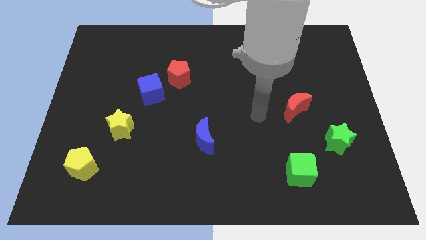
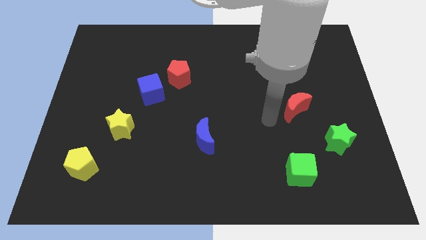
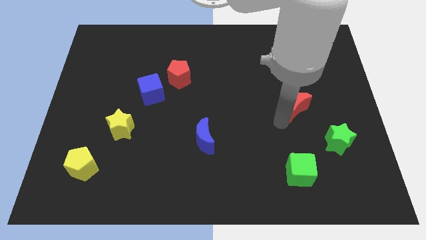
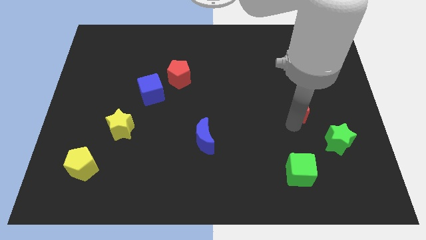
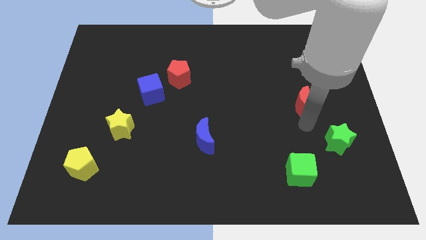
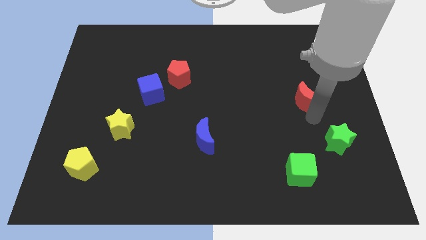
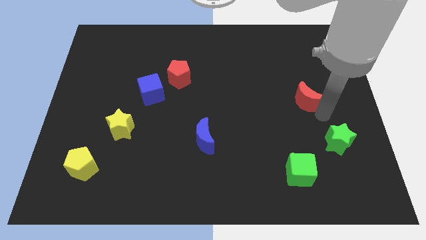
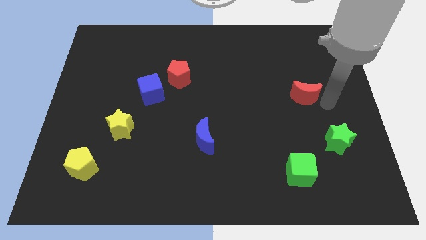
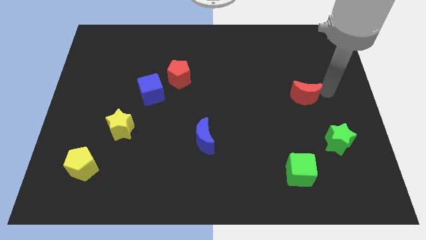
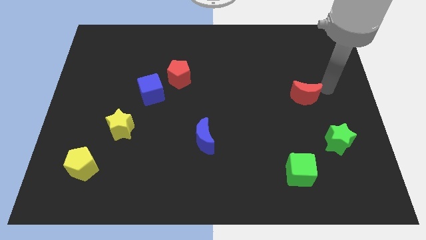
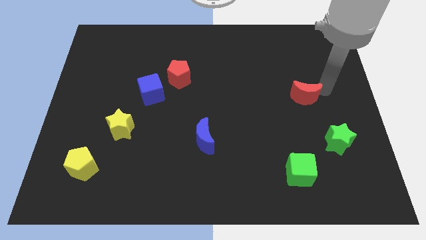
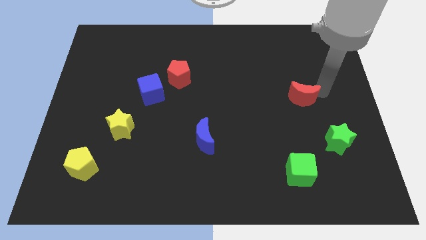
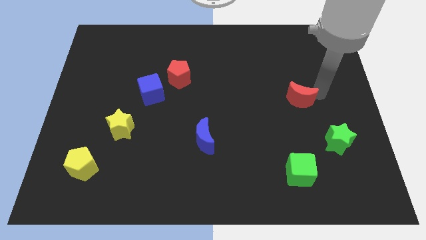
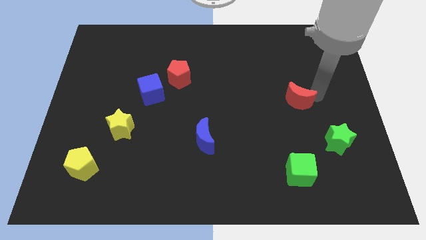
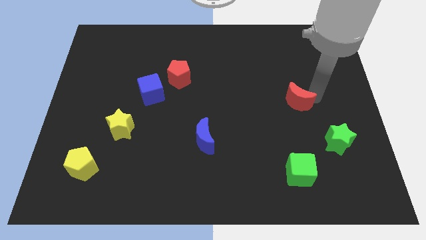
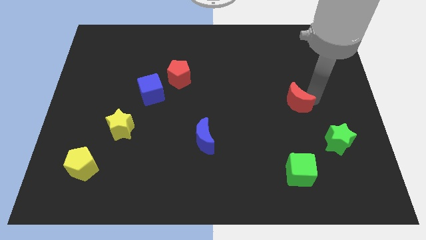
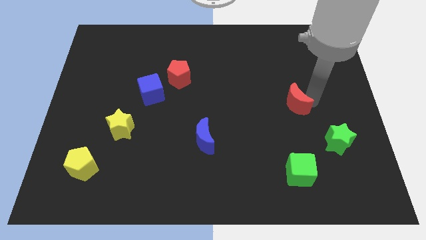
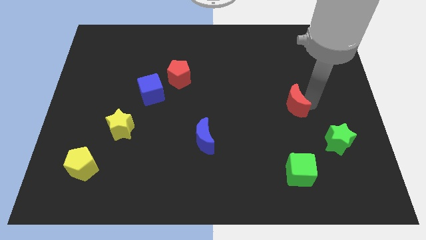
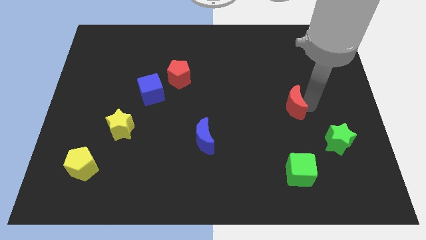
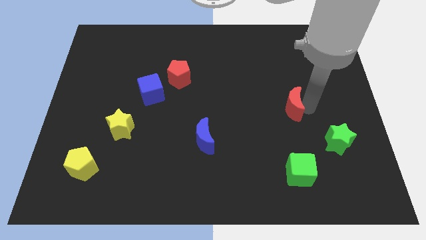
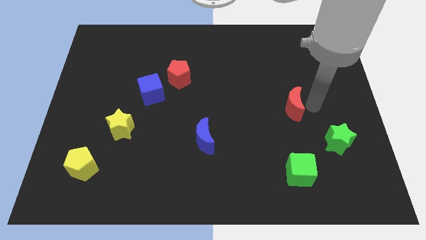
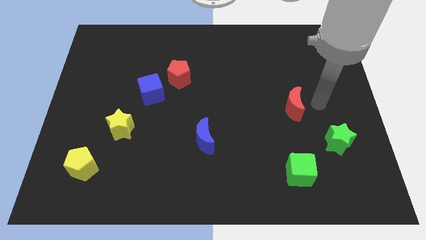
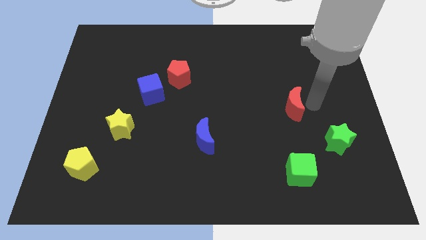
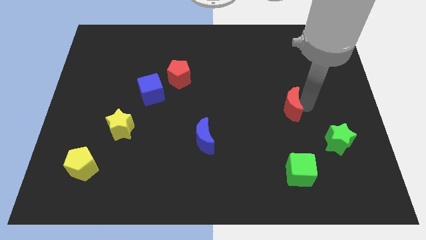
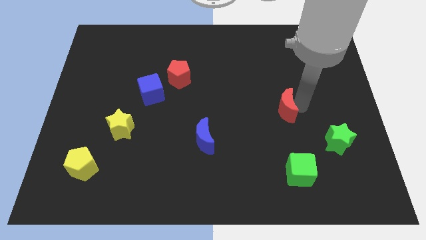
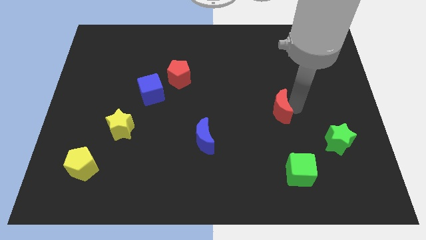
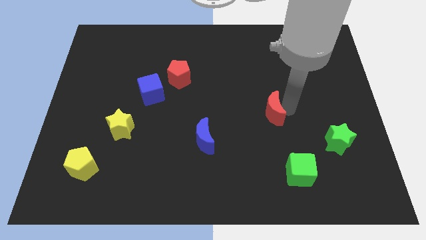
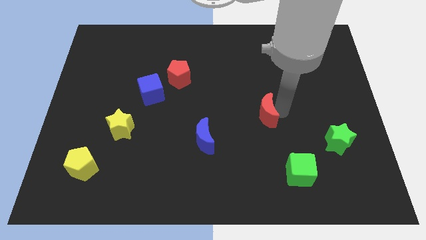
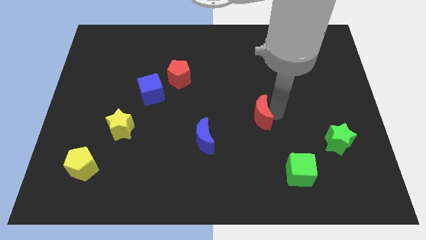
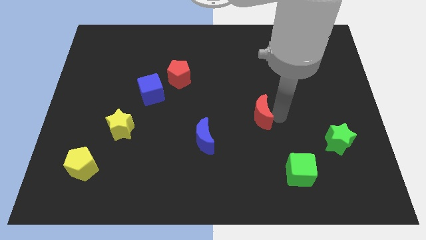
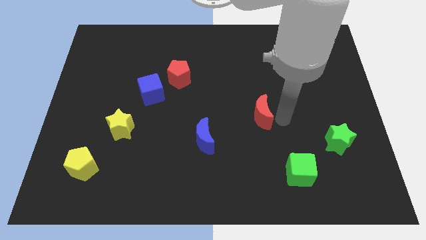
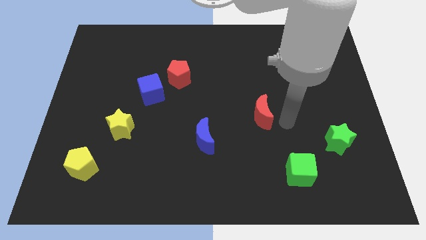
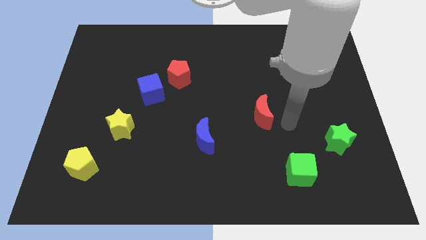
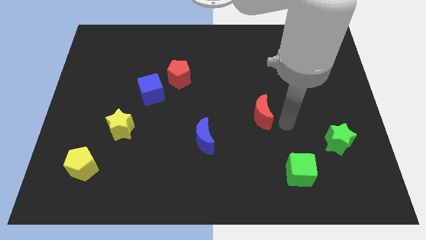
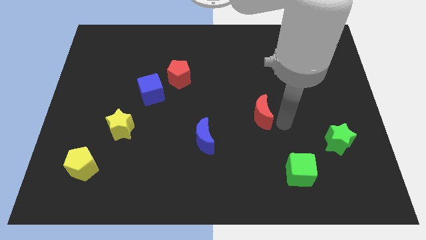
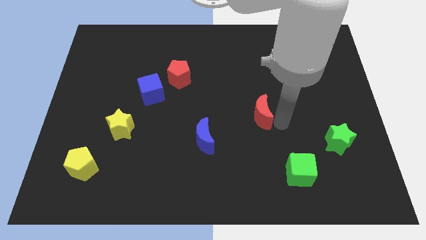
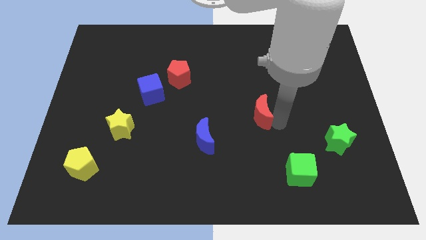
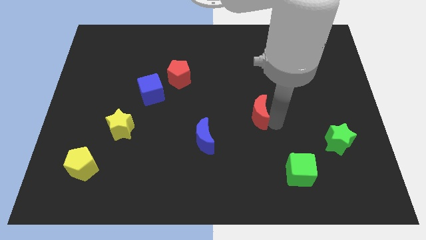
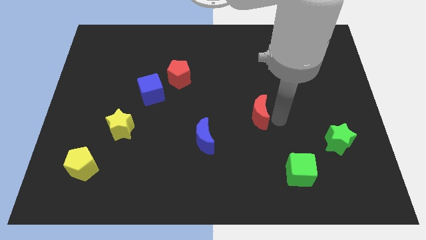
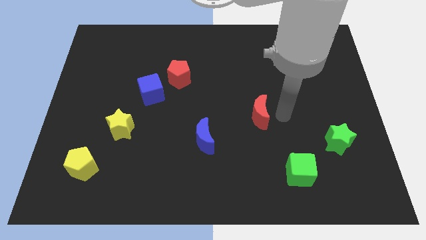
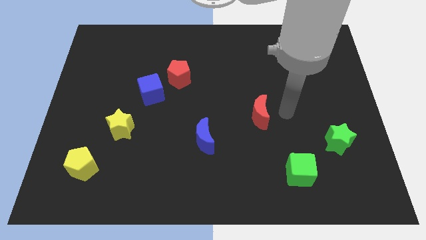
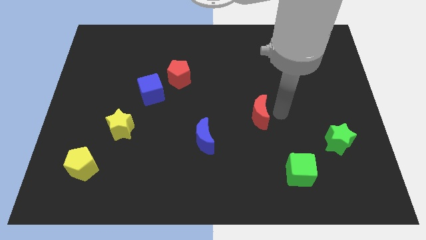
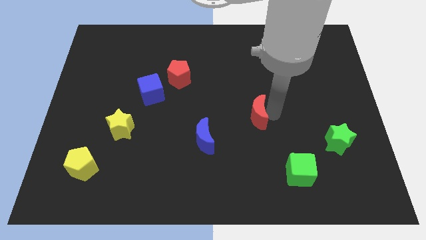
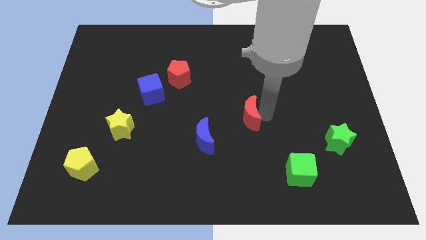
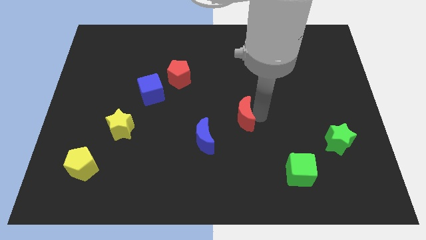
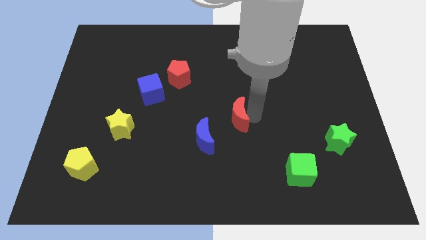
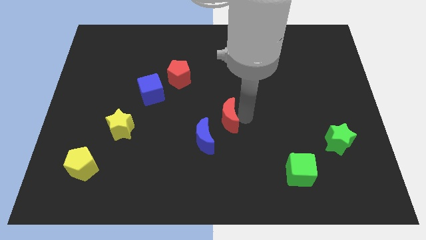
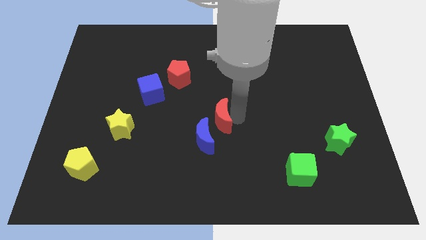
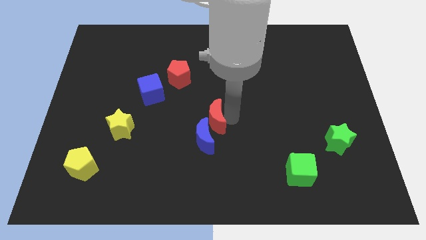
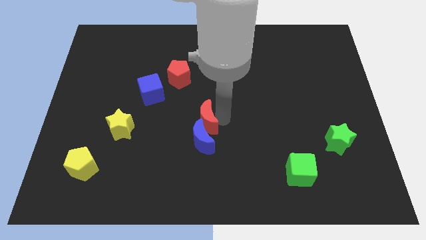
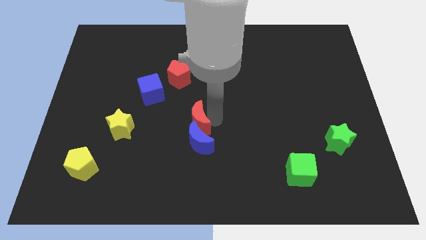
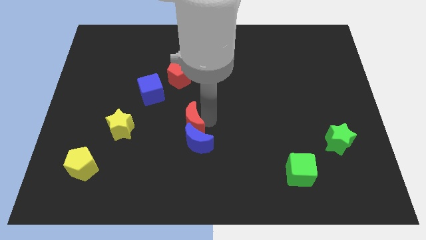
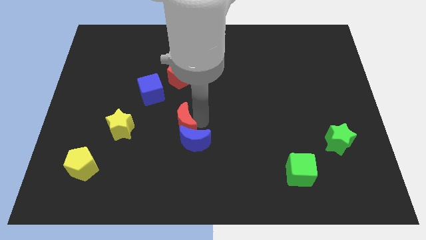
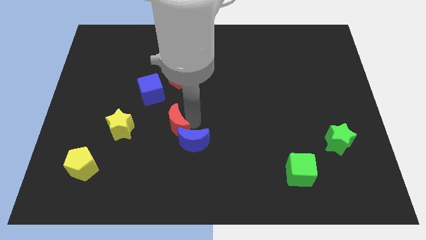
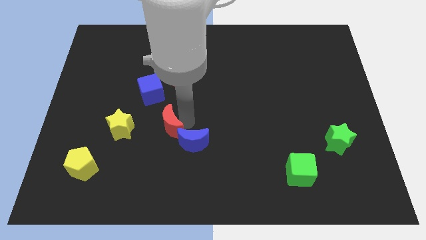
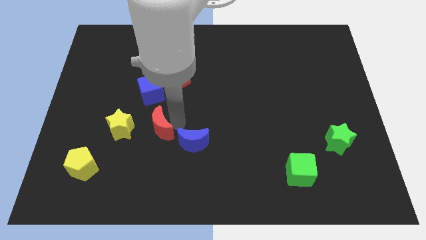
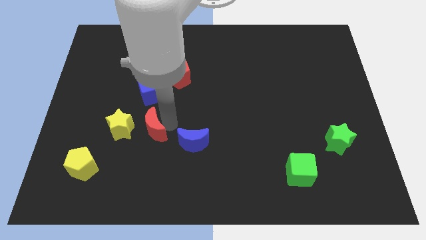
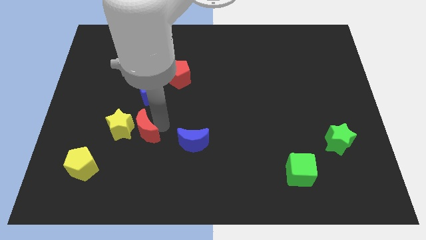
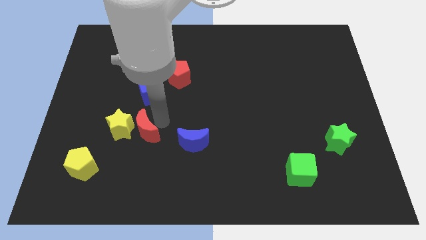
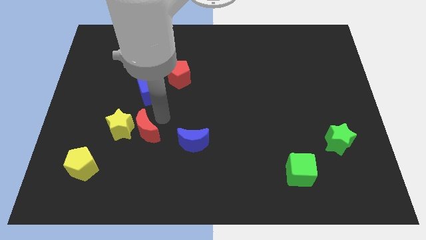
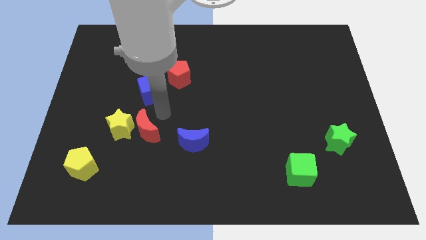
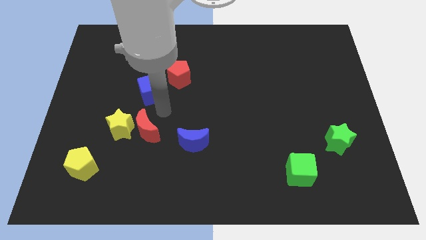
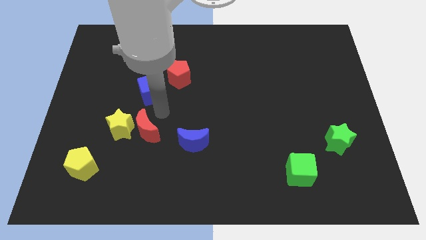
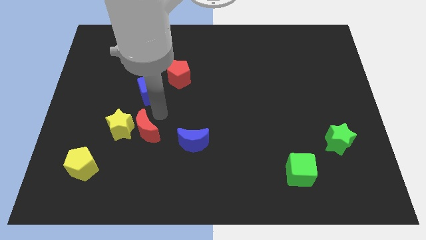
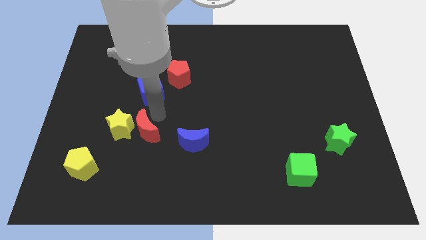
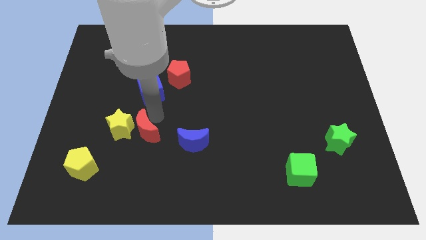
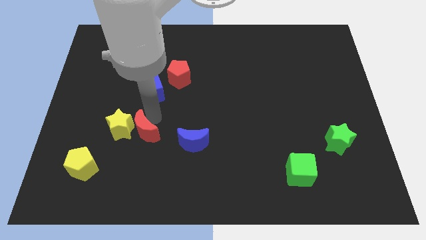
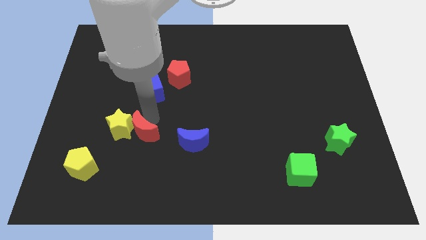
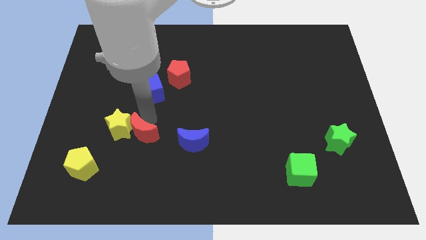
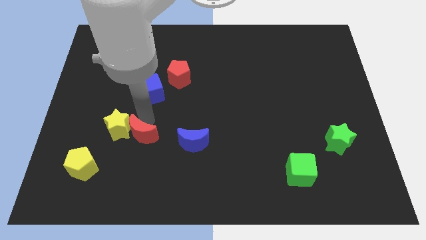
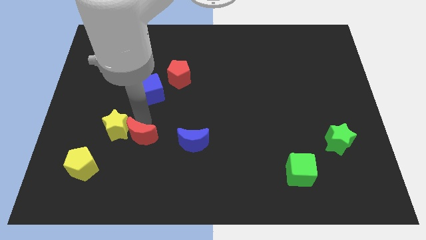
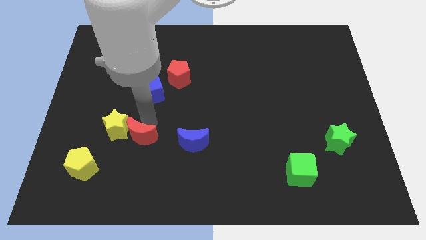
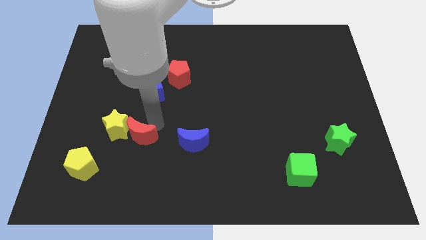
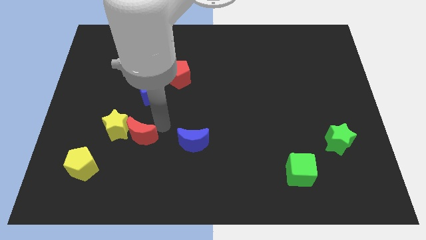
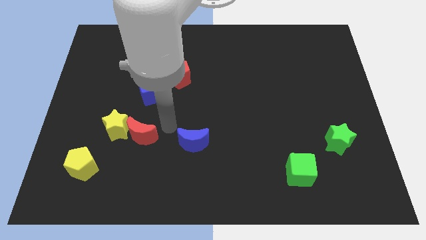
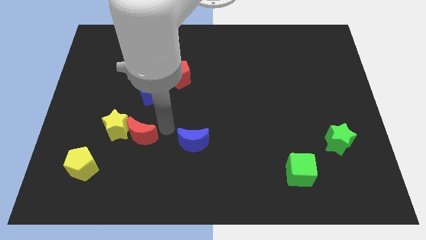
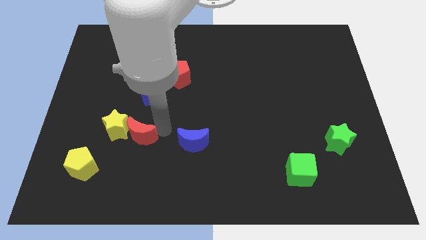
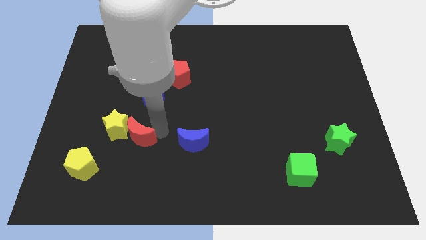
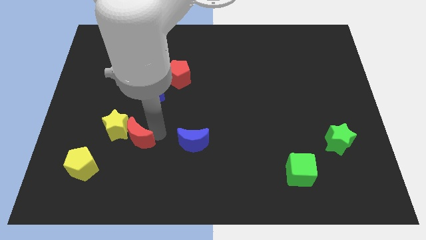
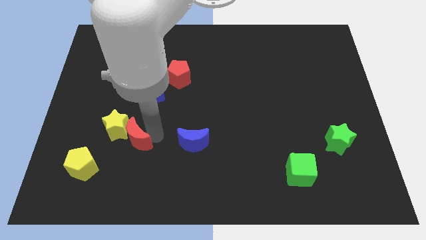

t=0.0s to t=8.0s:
put the red moon to the top right of the yellow pentagon
